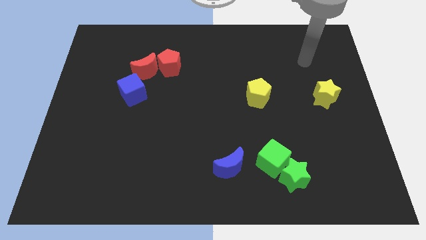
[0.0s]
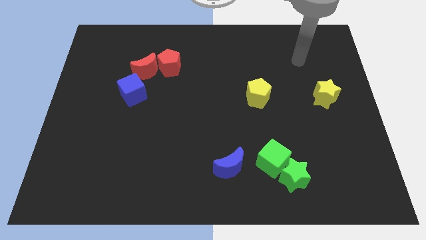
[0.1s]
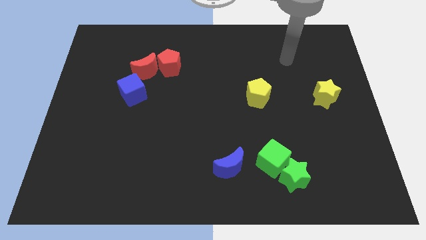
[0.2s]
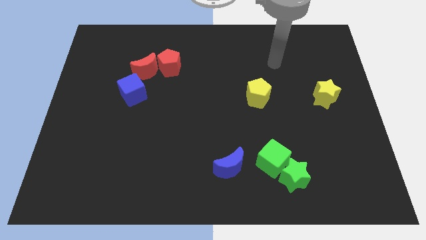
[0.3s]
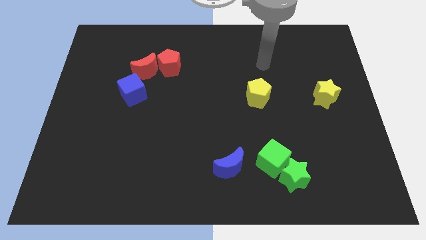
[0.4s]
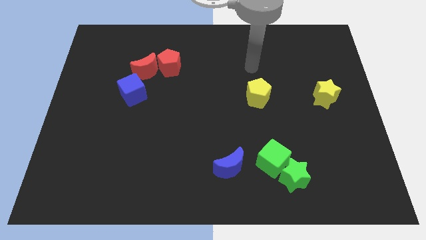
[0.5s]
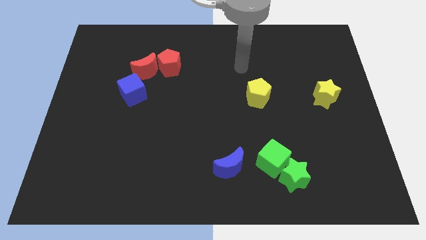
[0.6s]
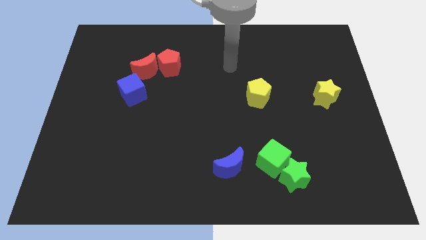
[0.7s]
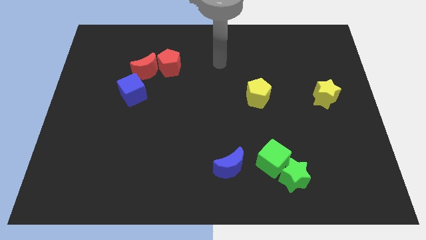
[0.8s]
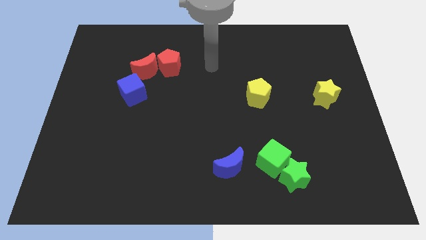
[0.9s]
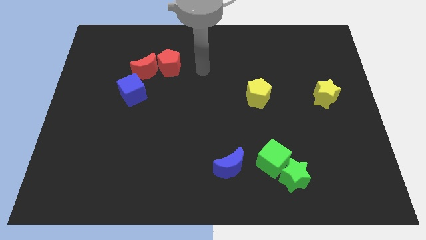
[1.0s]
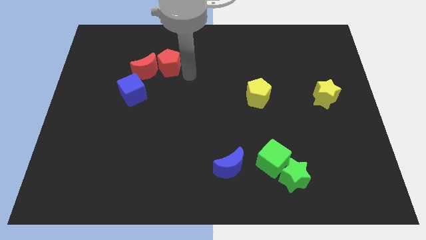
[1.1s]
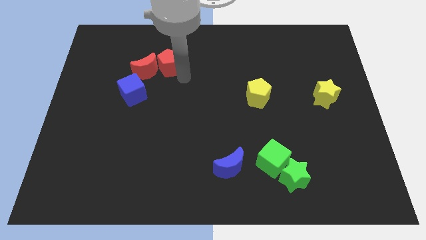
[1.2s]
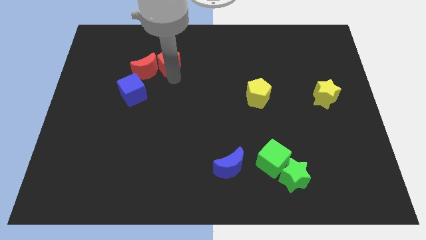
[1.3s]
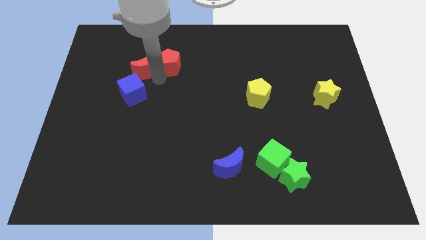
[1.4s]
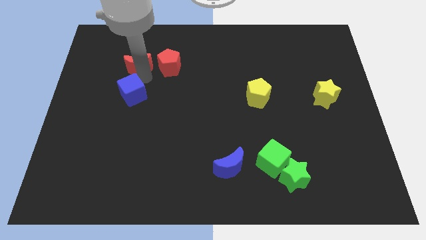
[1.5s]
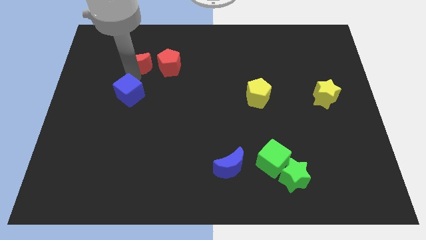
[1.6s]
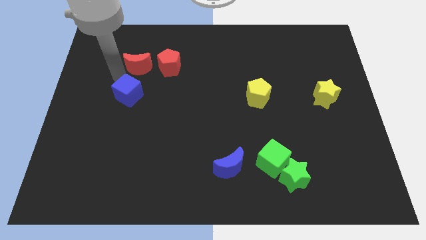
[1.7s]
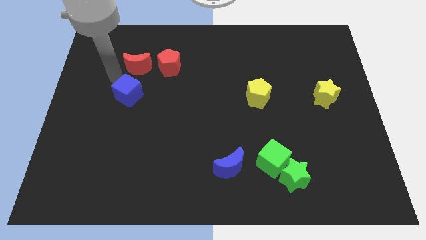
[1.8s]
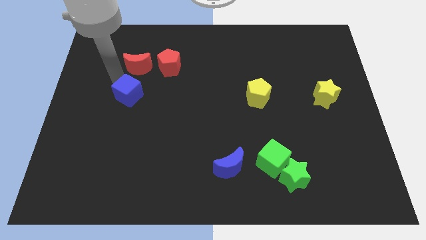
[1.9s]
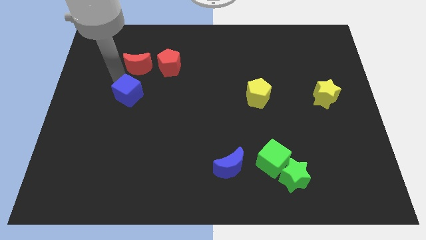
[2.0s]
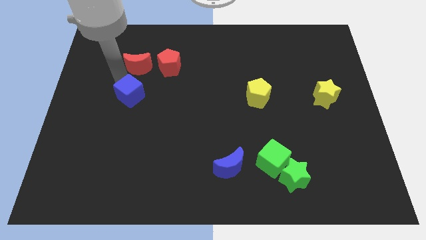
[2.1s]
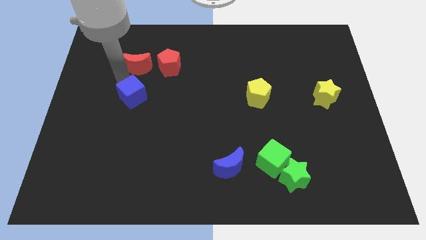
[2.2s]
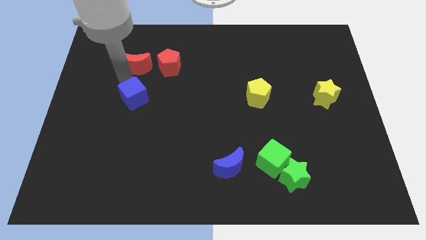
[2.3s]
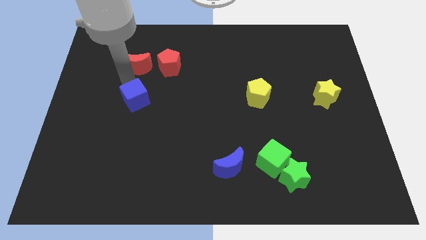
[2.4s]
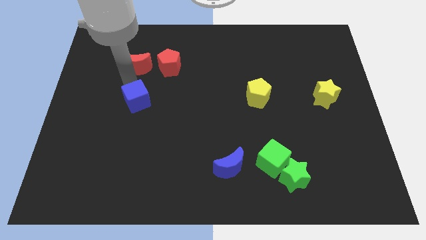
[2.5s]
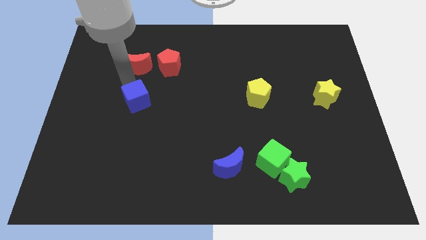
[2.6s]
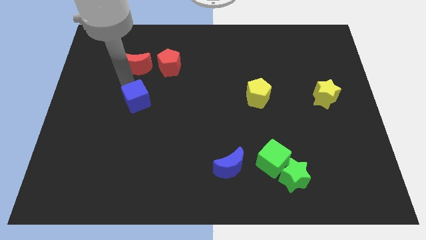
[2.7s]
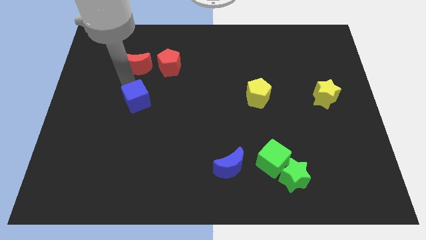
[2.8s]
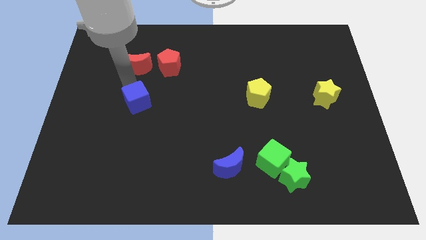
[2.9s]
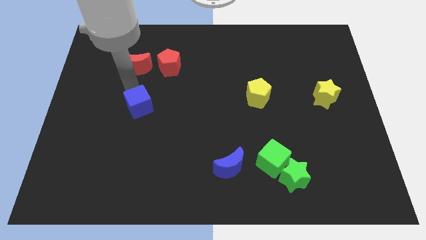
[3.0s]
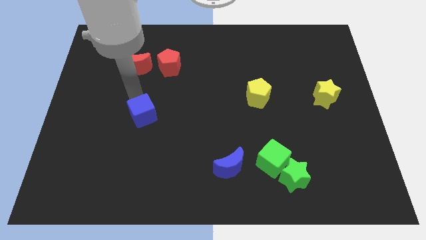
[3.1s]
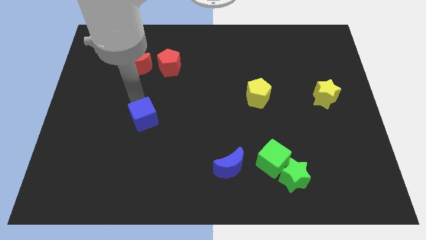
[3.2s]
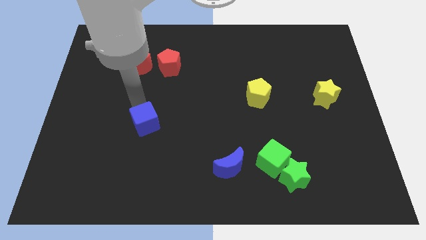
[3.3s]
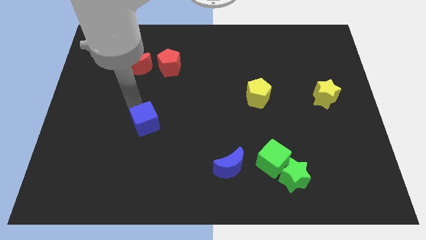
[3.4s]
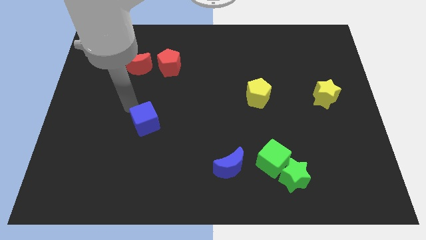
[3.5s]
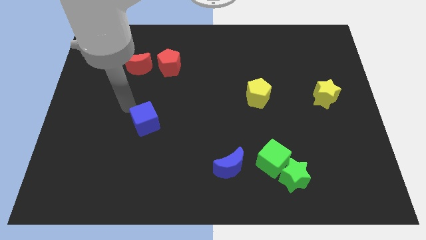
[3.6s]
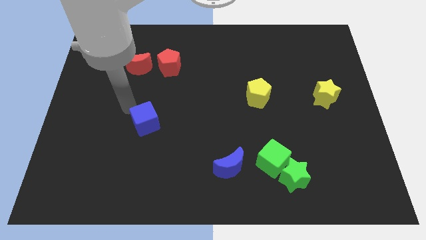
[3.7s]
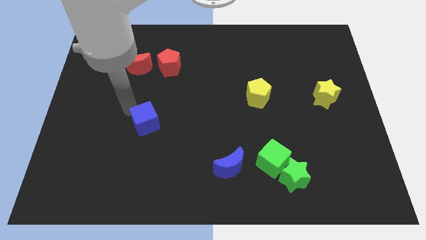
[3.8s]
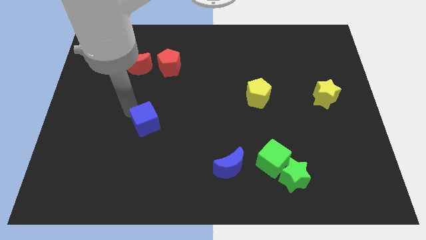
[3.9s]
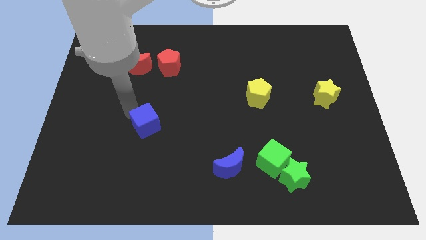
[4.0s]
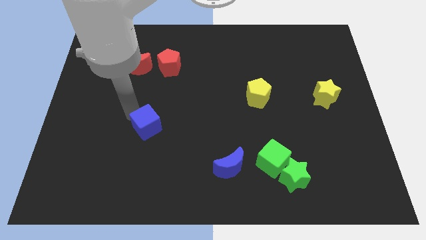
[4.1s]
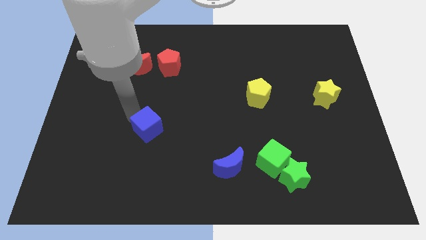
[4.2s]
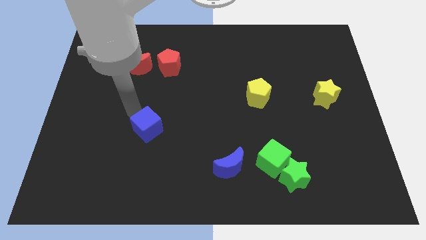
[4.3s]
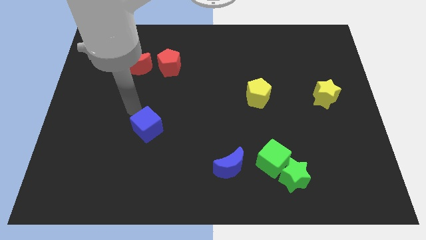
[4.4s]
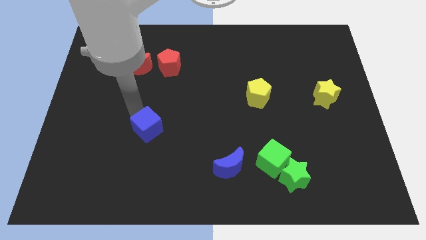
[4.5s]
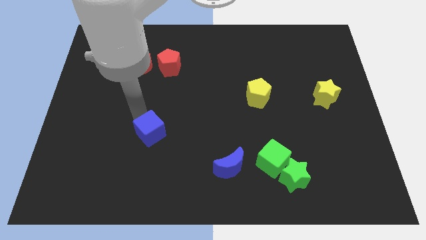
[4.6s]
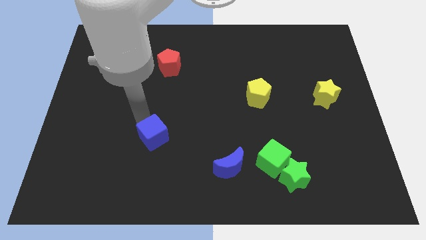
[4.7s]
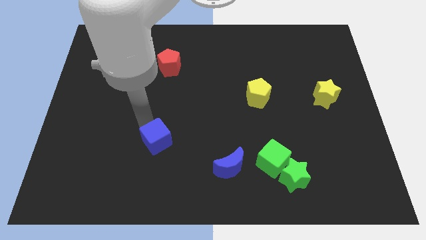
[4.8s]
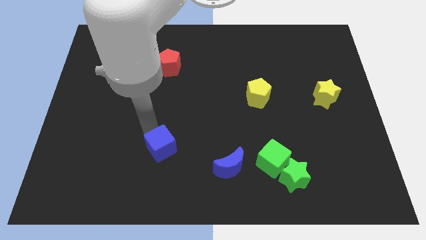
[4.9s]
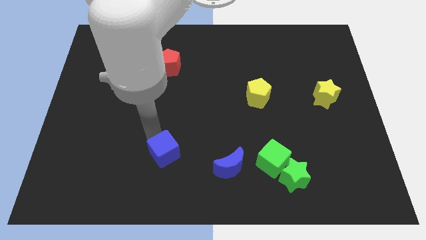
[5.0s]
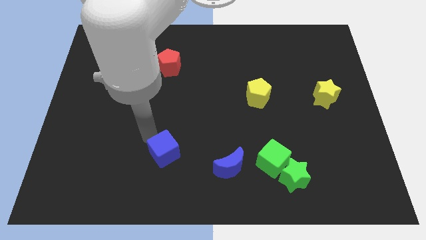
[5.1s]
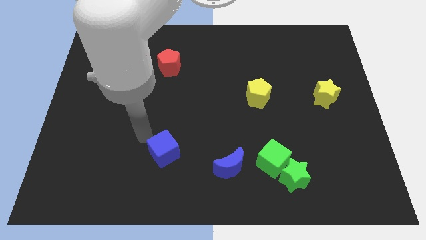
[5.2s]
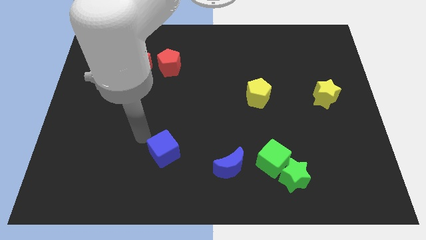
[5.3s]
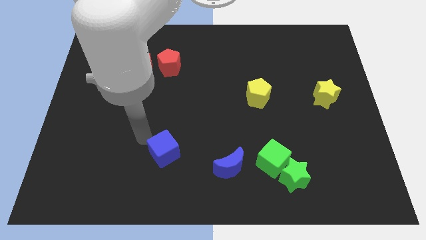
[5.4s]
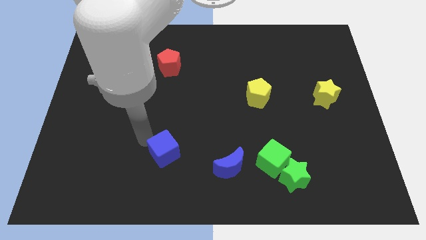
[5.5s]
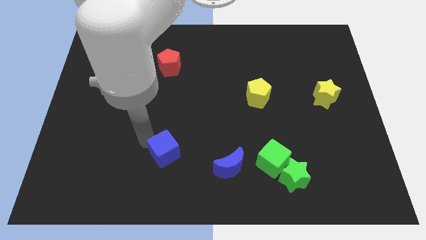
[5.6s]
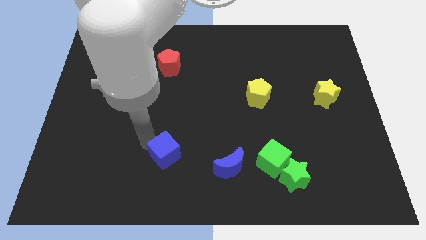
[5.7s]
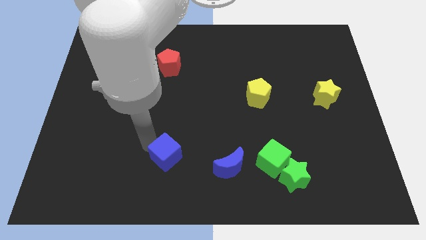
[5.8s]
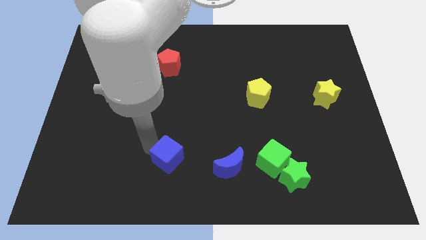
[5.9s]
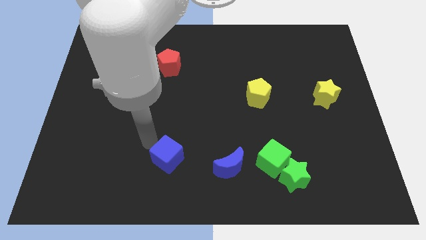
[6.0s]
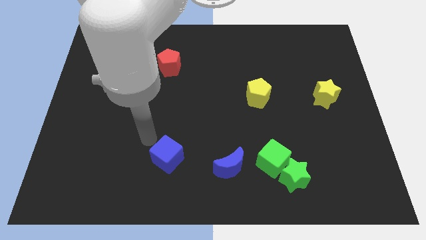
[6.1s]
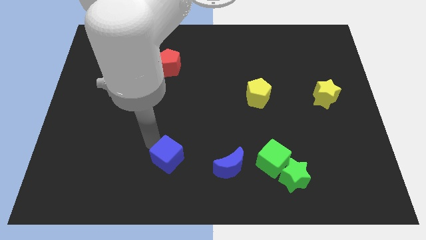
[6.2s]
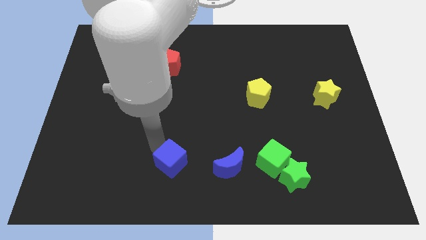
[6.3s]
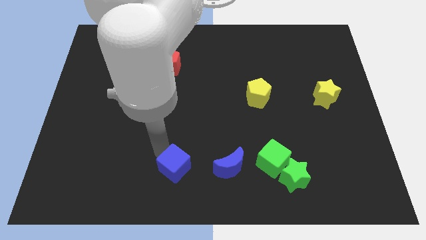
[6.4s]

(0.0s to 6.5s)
slide the blue cube to the bottom side

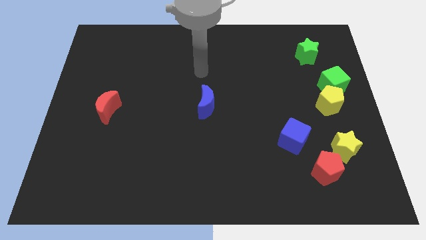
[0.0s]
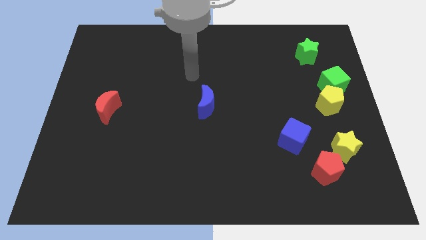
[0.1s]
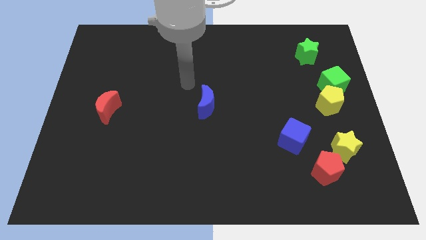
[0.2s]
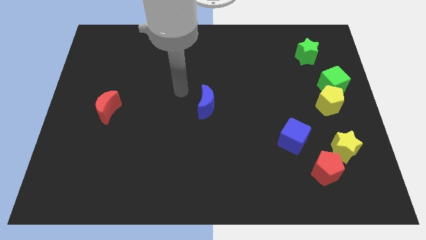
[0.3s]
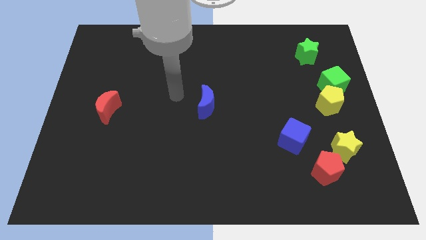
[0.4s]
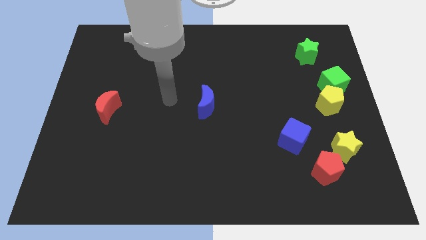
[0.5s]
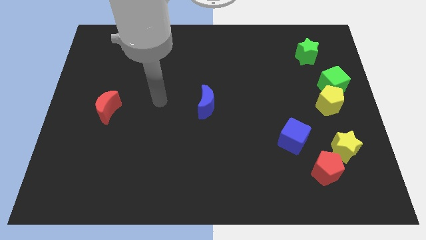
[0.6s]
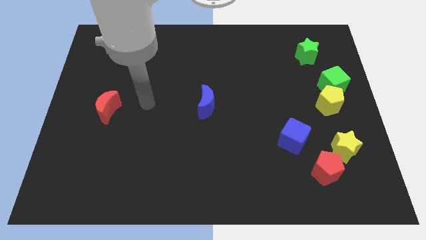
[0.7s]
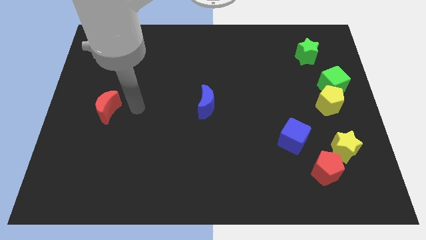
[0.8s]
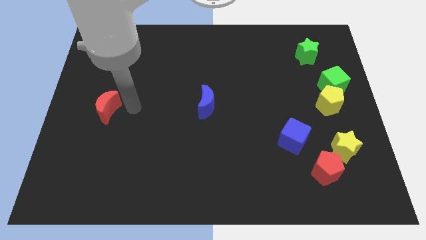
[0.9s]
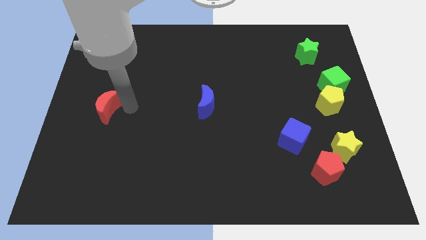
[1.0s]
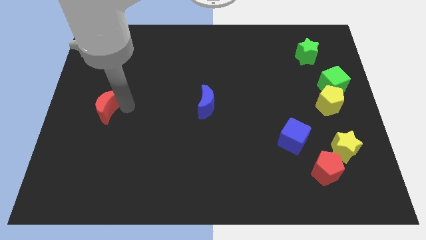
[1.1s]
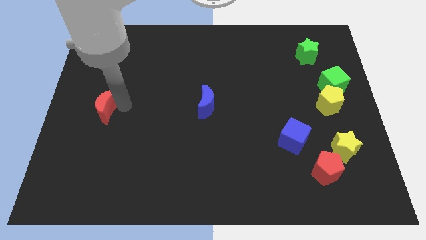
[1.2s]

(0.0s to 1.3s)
put the red moon to the left side

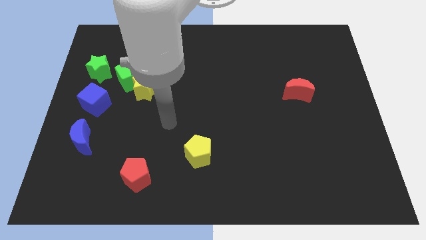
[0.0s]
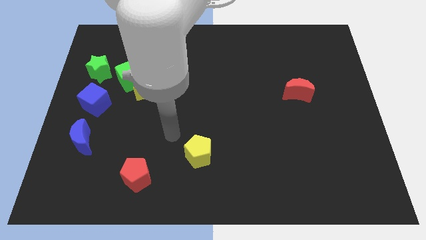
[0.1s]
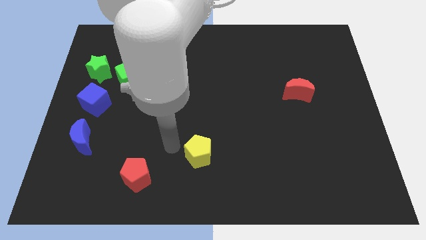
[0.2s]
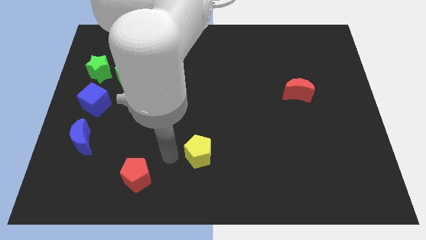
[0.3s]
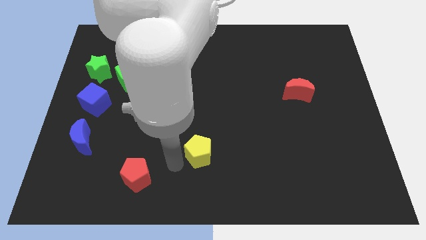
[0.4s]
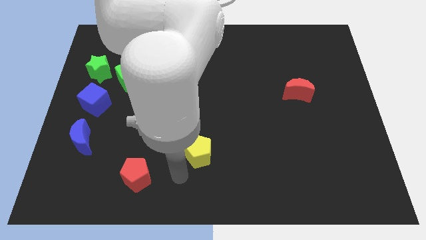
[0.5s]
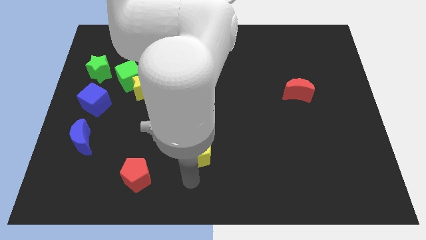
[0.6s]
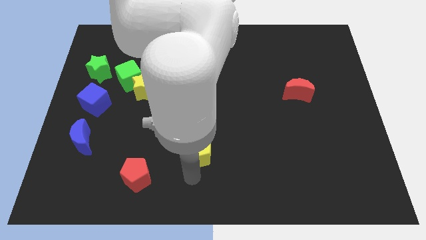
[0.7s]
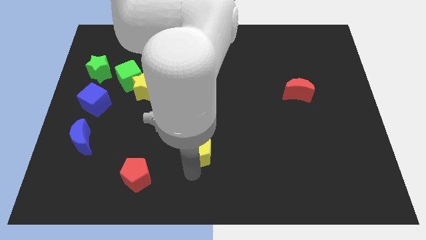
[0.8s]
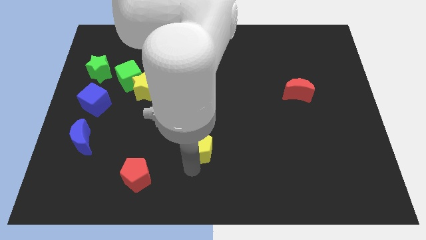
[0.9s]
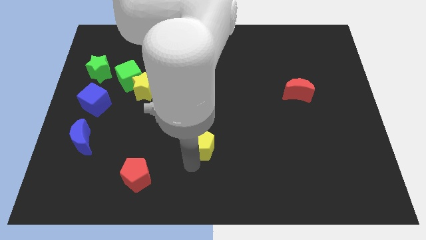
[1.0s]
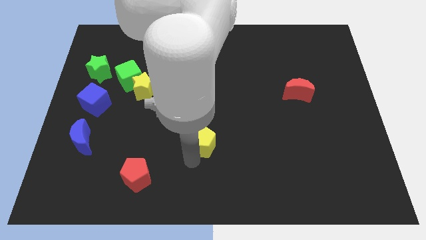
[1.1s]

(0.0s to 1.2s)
put the yellow pentagon to the center of the board
